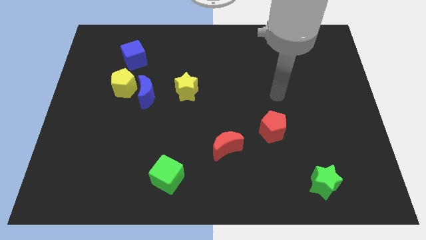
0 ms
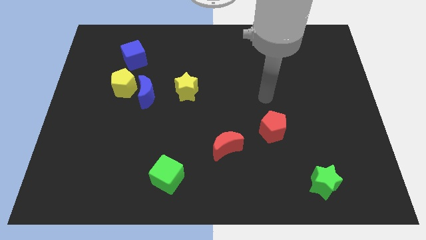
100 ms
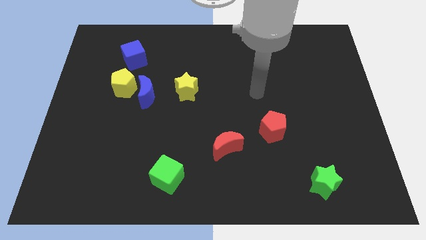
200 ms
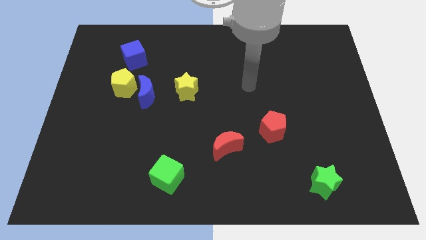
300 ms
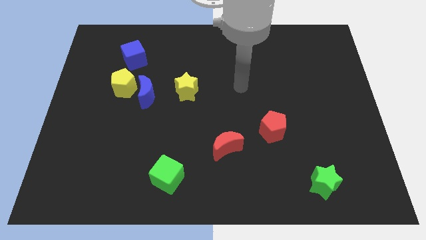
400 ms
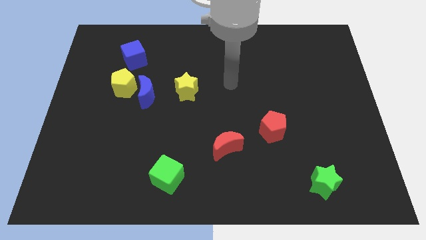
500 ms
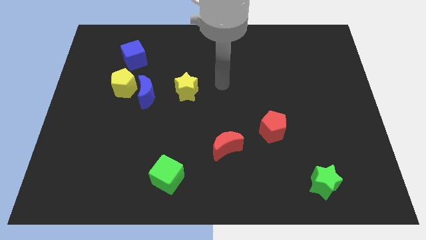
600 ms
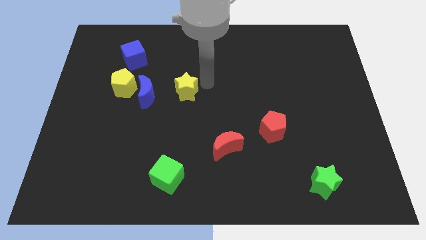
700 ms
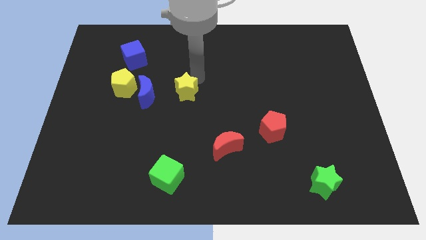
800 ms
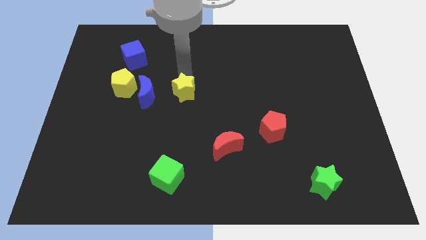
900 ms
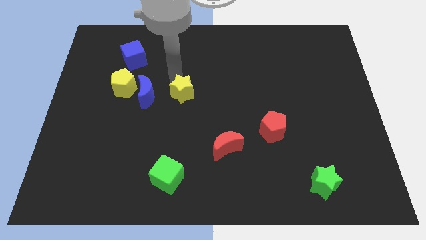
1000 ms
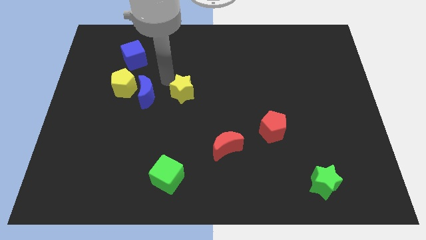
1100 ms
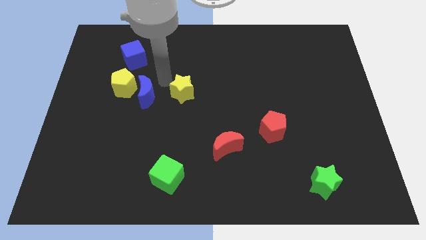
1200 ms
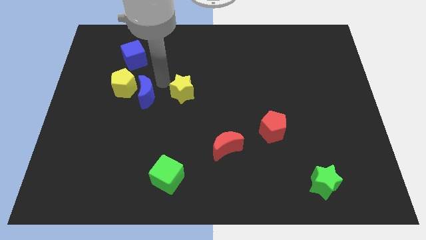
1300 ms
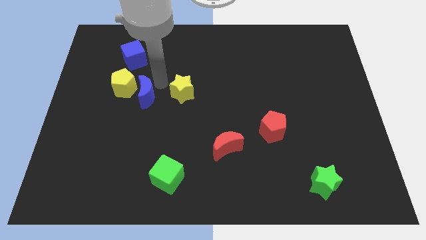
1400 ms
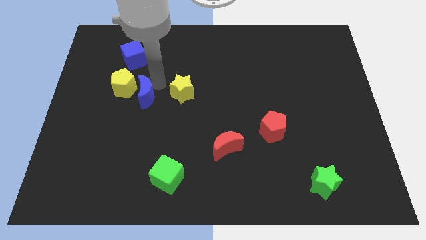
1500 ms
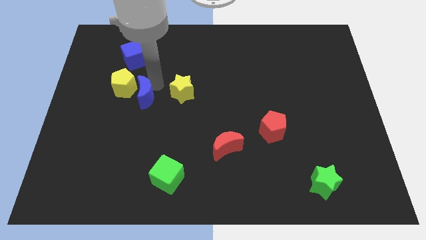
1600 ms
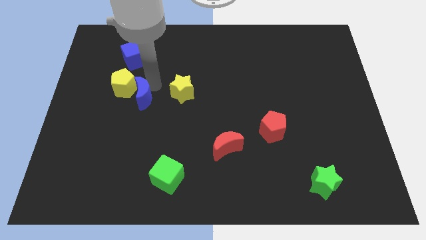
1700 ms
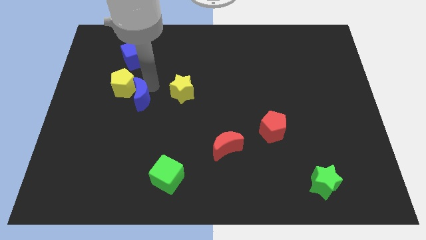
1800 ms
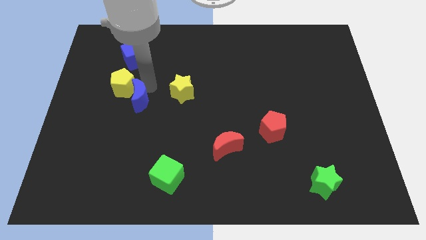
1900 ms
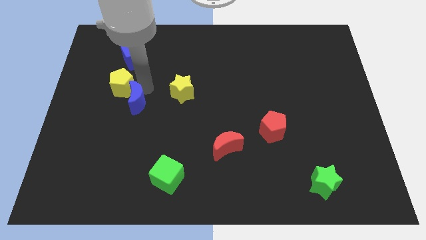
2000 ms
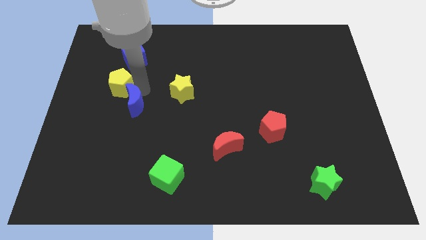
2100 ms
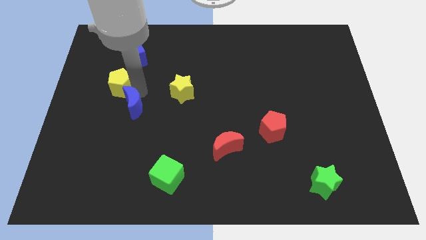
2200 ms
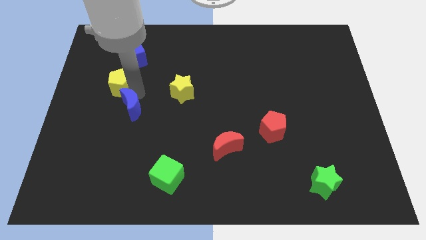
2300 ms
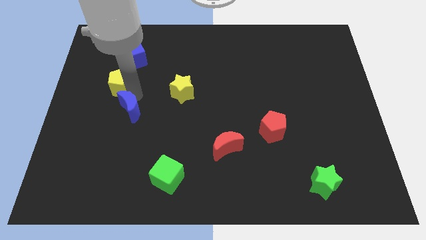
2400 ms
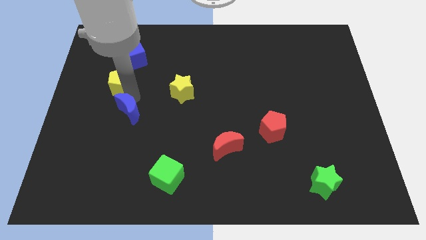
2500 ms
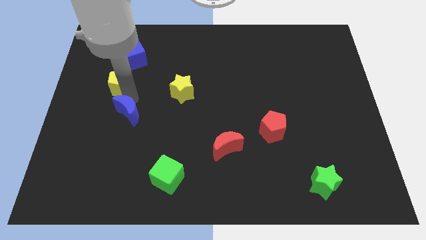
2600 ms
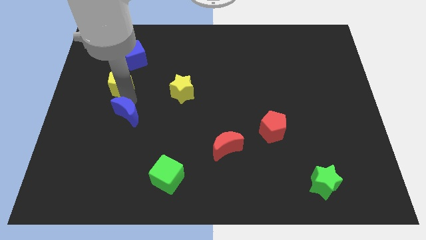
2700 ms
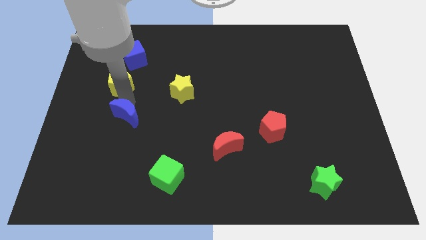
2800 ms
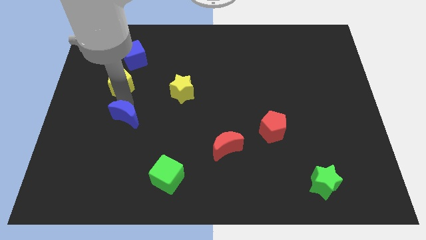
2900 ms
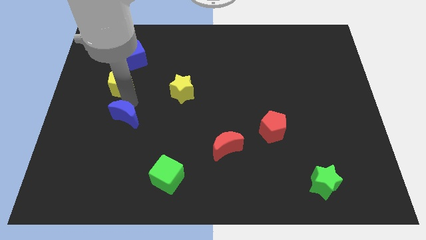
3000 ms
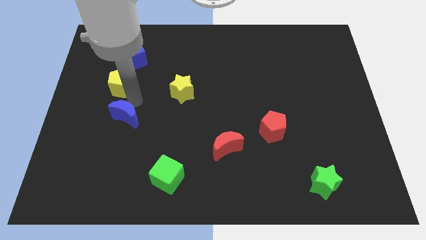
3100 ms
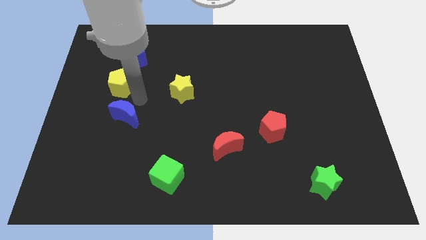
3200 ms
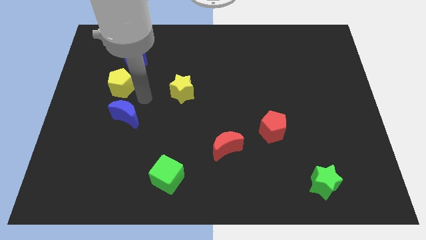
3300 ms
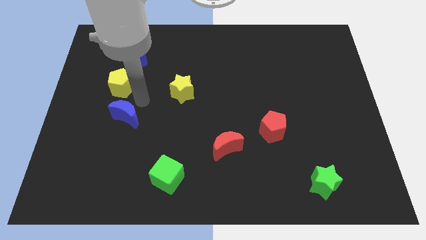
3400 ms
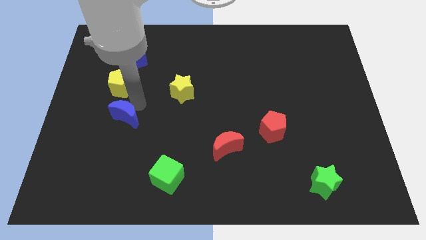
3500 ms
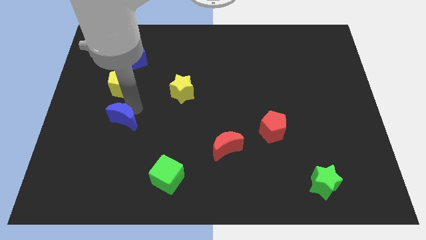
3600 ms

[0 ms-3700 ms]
separate the blue moon from the yellow pentagon and yellow star

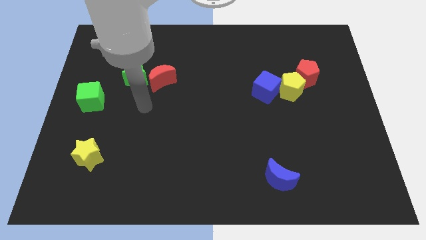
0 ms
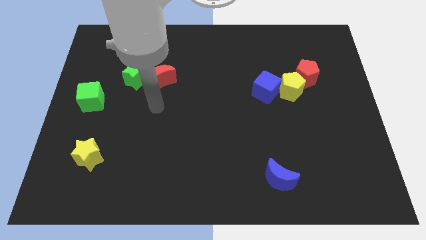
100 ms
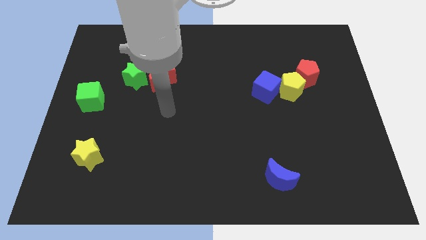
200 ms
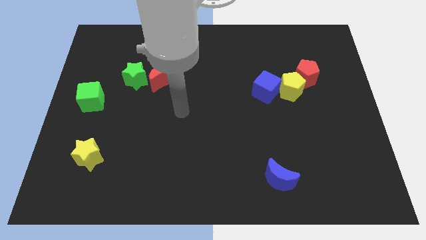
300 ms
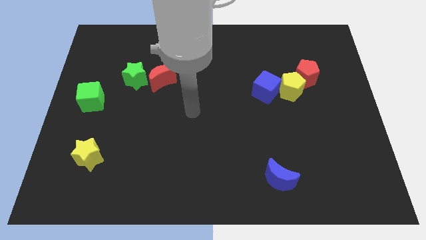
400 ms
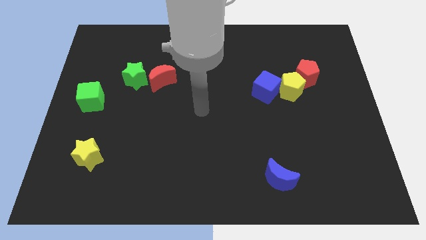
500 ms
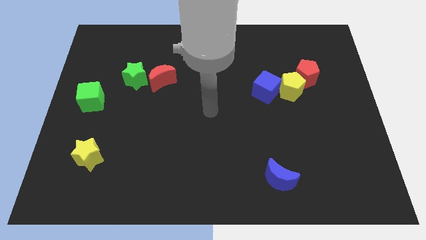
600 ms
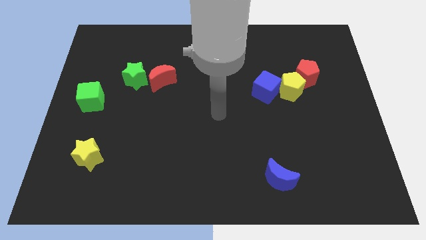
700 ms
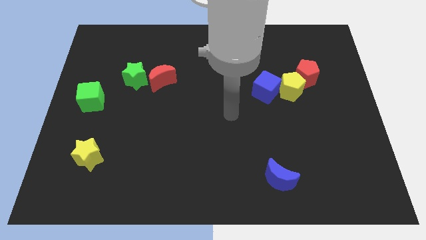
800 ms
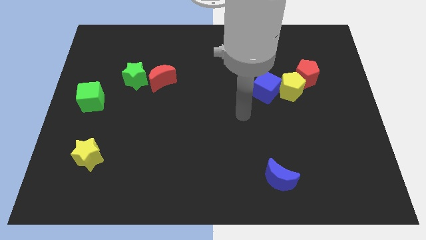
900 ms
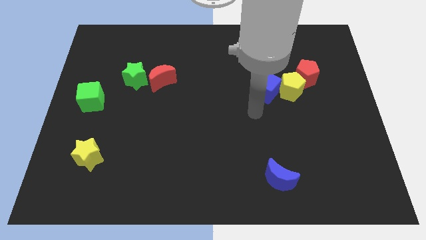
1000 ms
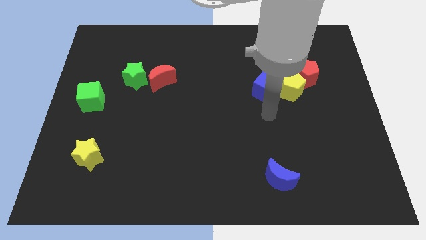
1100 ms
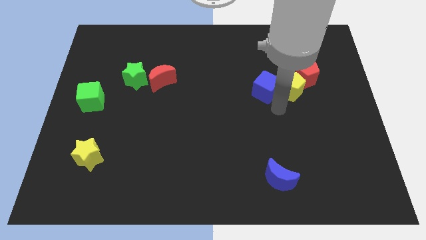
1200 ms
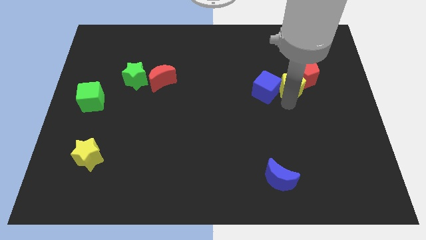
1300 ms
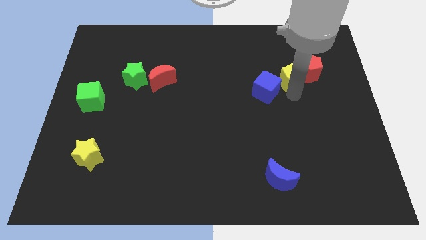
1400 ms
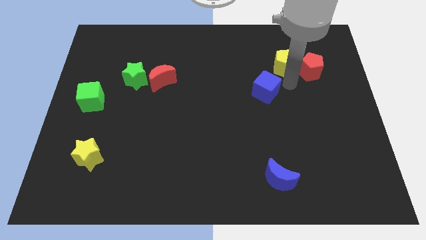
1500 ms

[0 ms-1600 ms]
pull the blue cube apart from the yellow pentagon

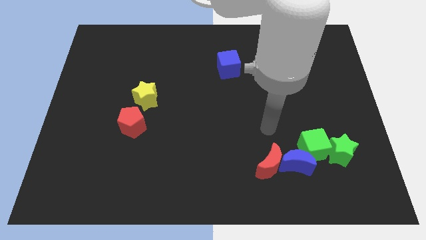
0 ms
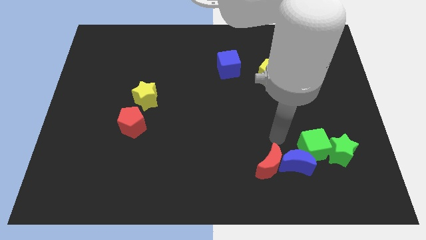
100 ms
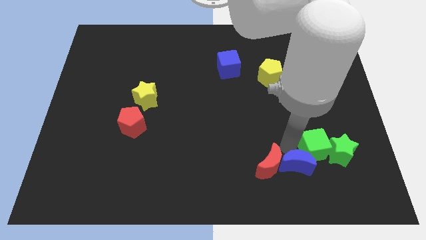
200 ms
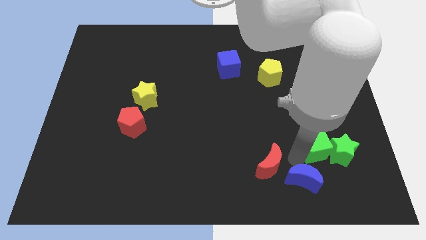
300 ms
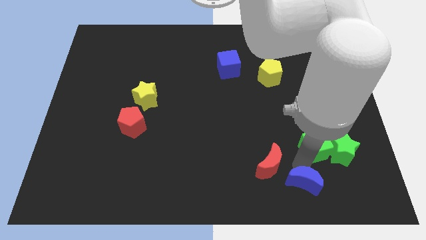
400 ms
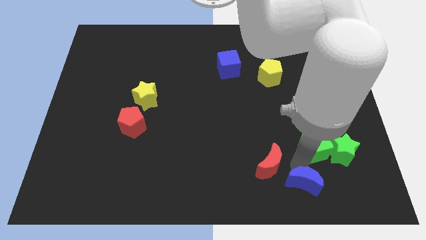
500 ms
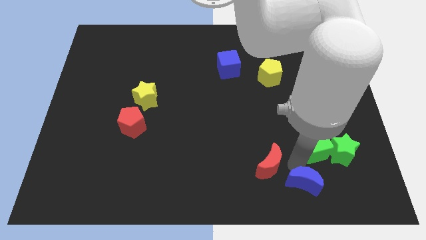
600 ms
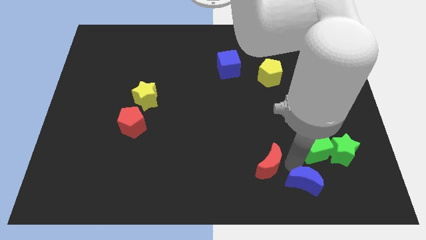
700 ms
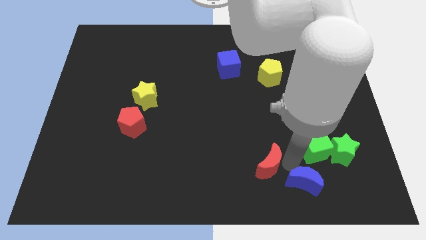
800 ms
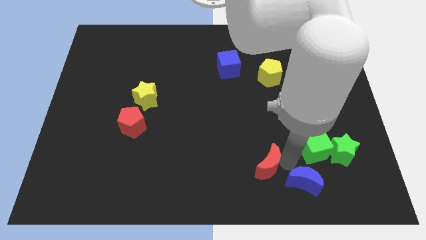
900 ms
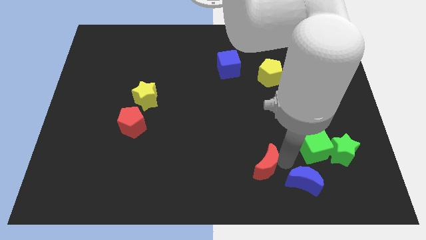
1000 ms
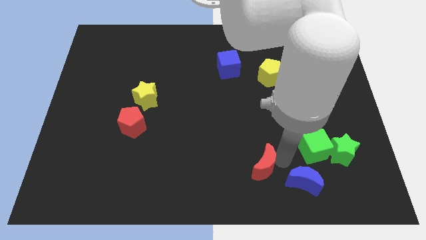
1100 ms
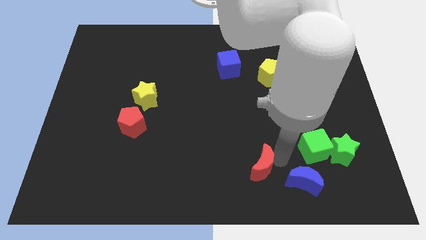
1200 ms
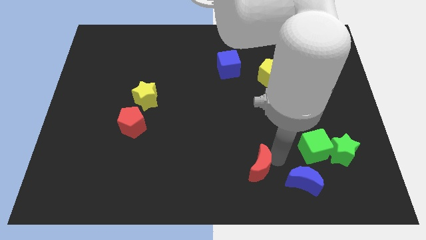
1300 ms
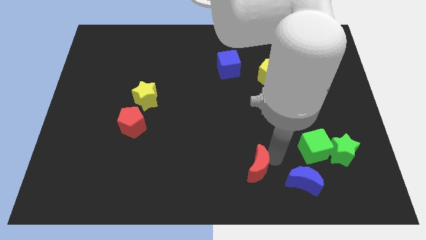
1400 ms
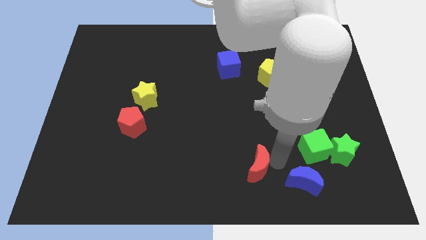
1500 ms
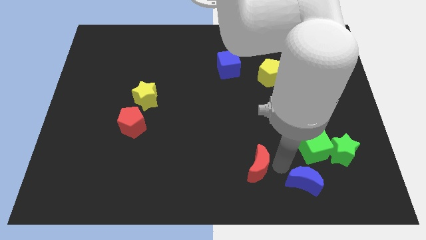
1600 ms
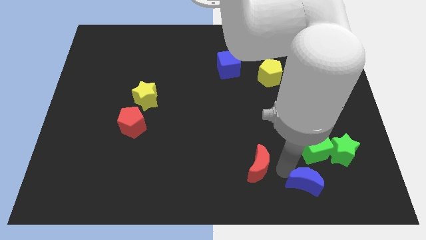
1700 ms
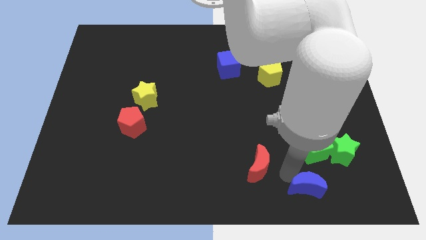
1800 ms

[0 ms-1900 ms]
pull the red moon apart from the blue moon

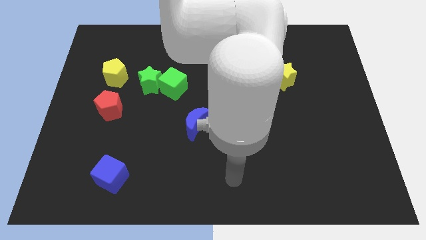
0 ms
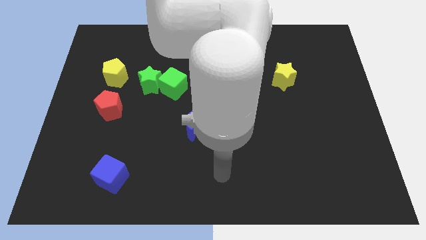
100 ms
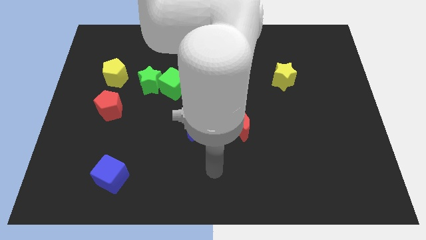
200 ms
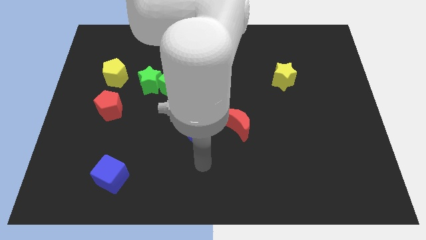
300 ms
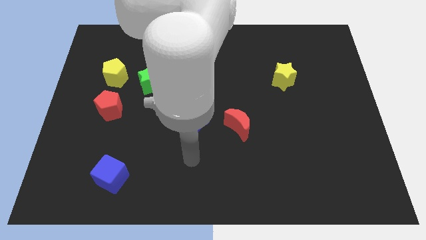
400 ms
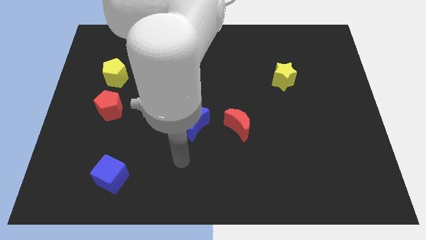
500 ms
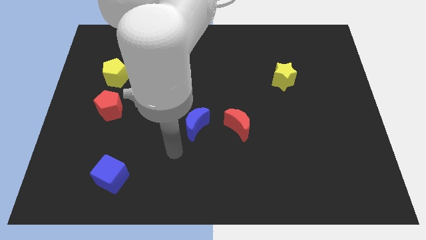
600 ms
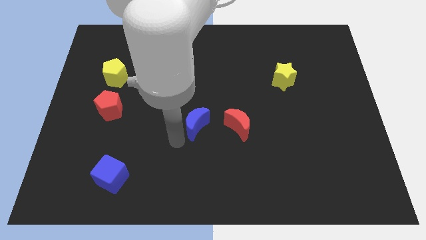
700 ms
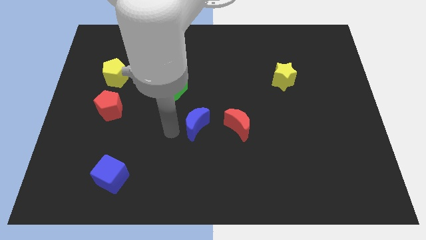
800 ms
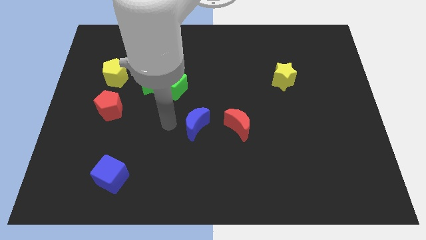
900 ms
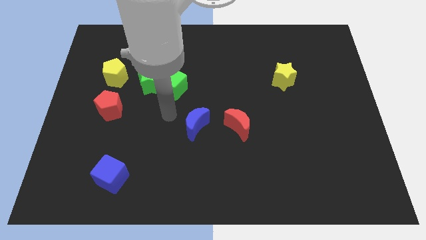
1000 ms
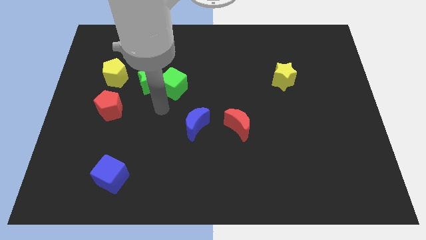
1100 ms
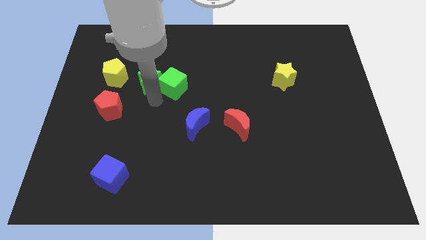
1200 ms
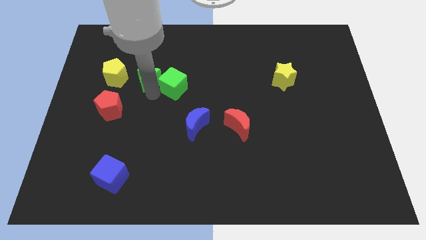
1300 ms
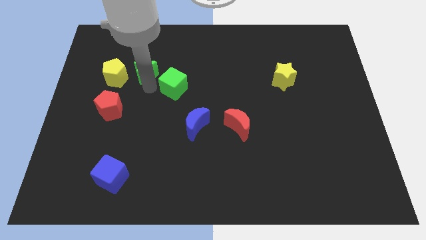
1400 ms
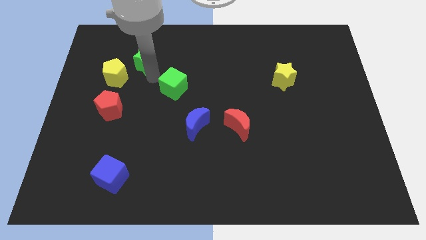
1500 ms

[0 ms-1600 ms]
separate the green cube from the green star

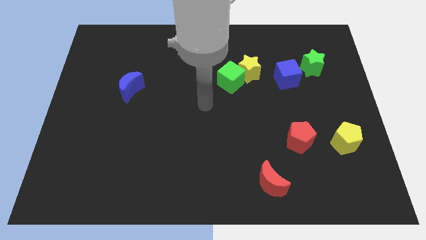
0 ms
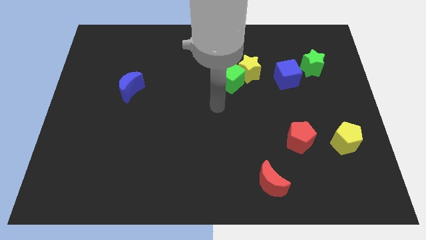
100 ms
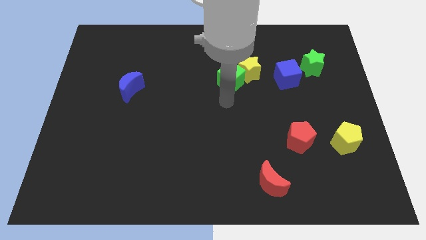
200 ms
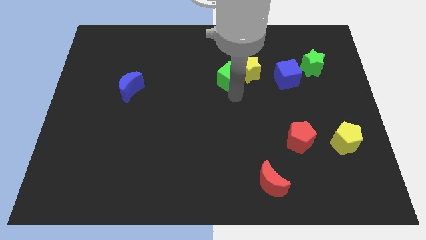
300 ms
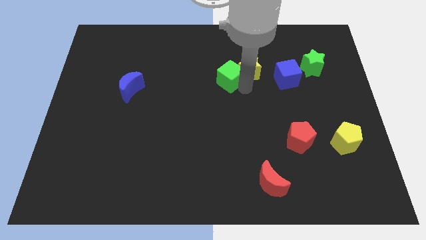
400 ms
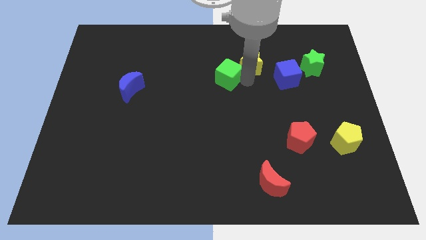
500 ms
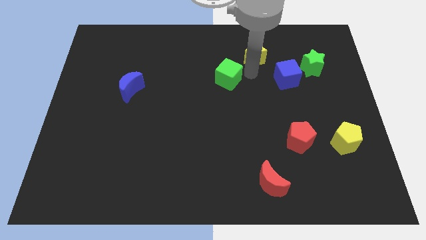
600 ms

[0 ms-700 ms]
move the green cube away from the yellow star
